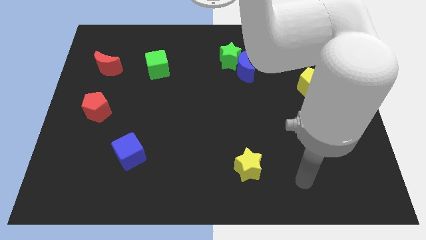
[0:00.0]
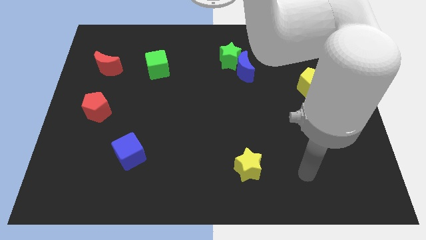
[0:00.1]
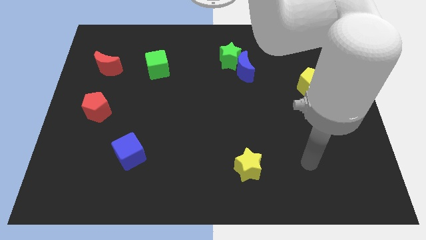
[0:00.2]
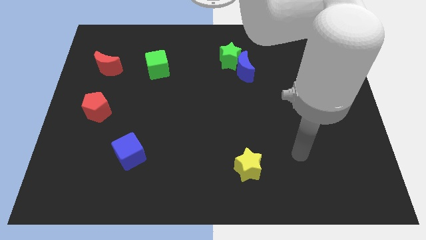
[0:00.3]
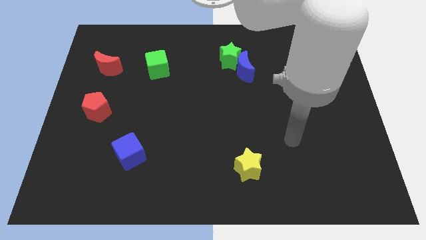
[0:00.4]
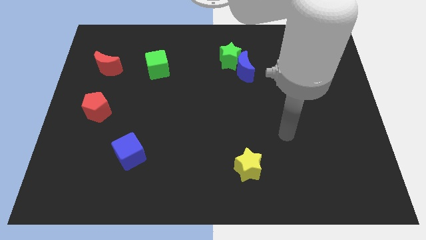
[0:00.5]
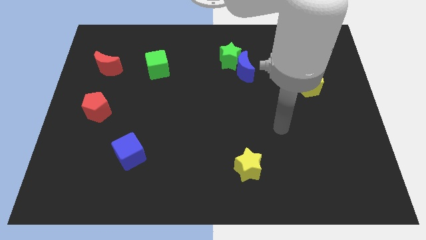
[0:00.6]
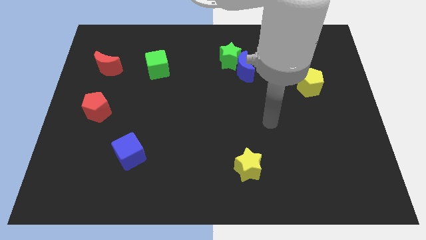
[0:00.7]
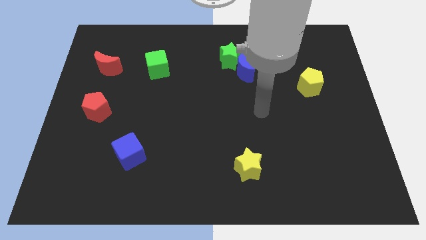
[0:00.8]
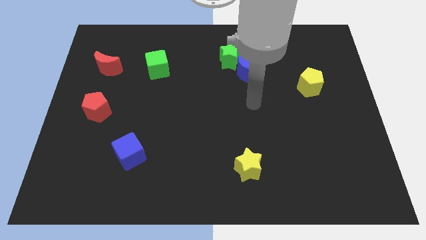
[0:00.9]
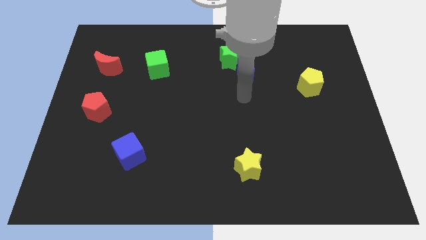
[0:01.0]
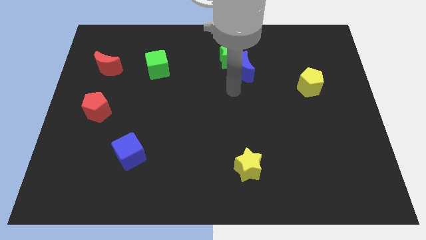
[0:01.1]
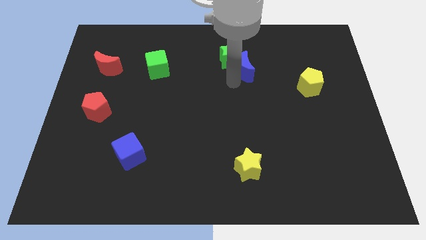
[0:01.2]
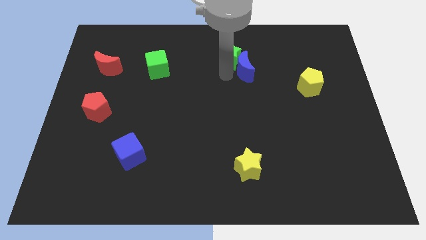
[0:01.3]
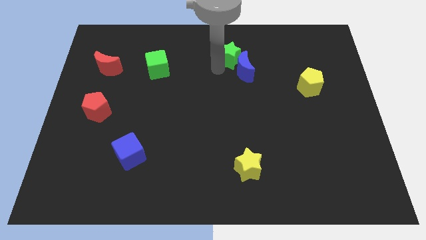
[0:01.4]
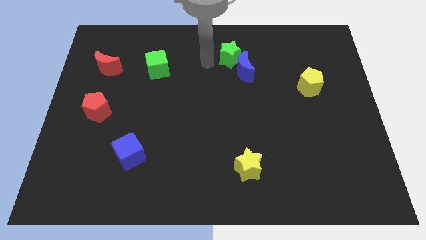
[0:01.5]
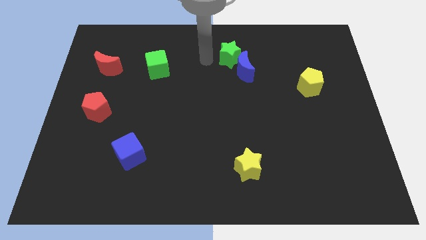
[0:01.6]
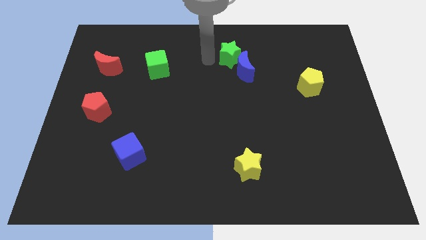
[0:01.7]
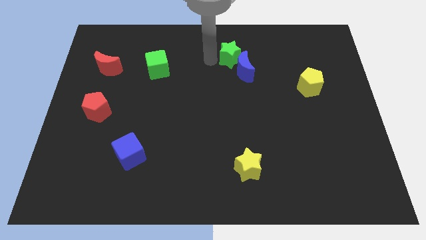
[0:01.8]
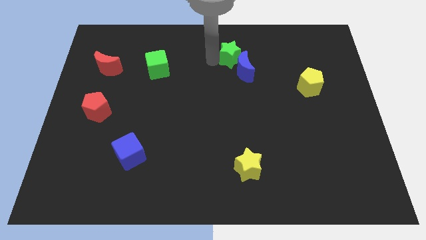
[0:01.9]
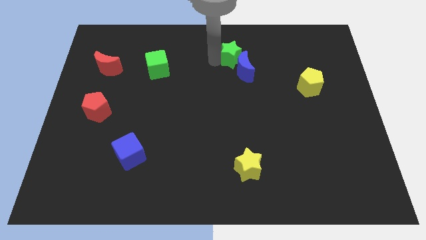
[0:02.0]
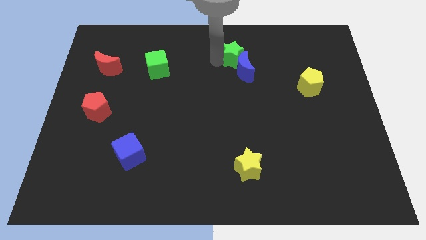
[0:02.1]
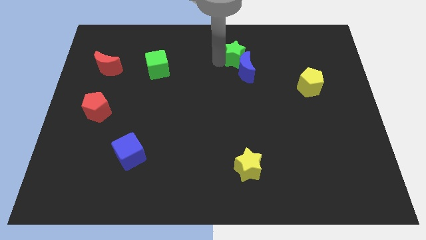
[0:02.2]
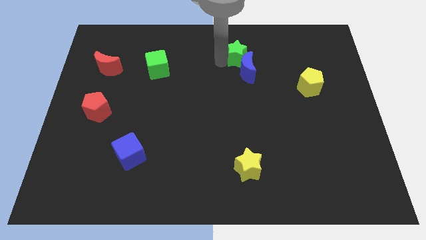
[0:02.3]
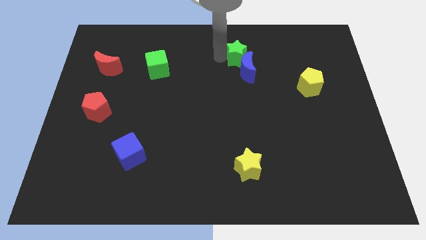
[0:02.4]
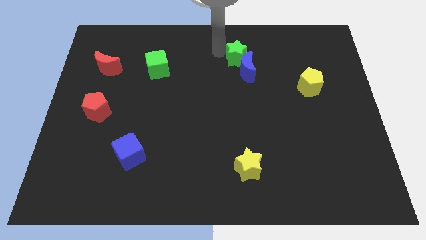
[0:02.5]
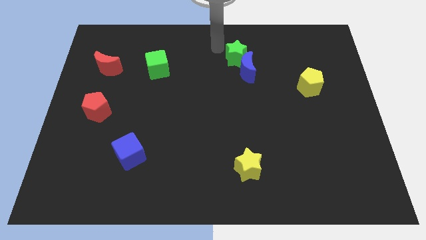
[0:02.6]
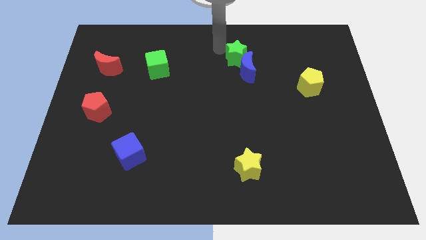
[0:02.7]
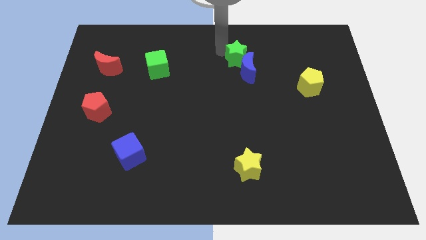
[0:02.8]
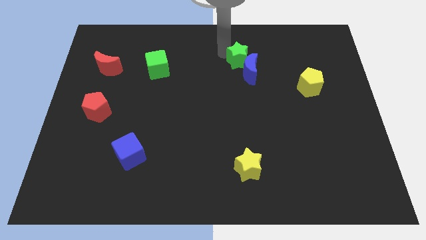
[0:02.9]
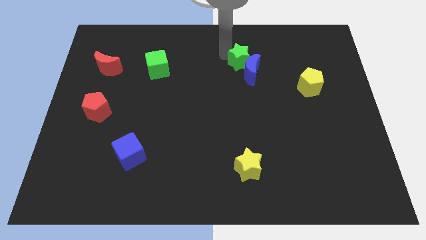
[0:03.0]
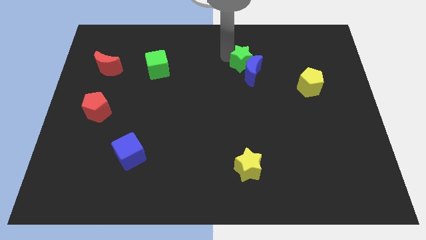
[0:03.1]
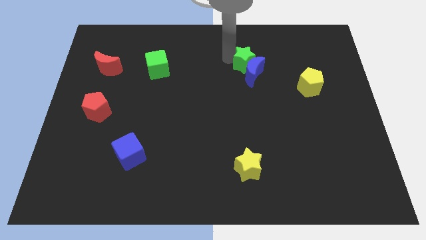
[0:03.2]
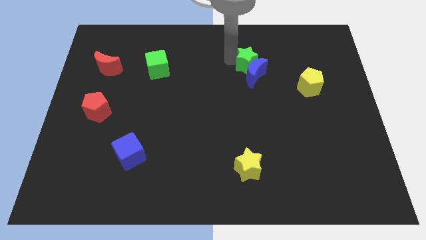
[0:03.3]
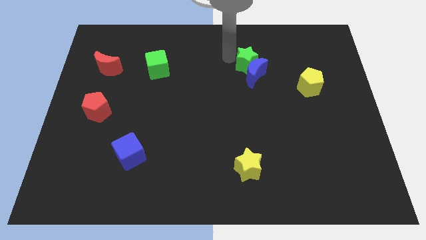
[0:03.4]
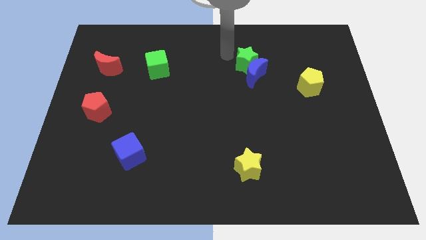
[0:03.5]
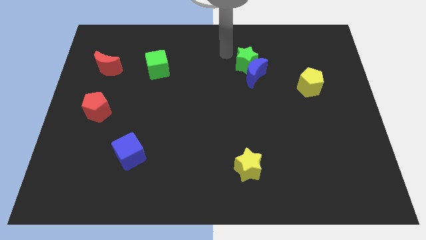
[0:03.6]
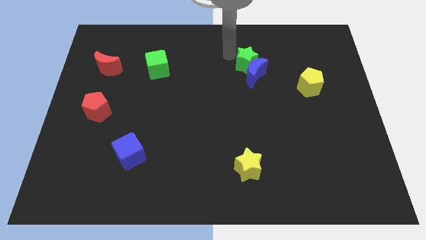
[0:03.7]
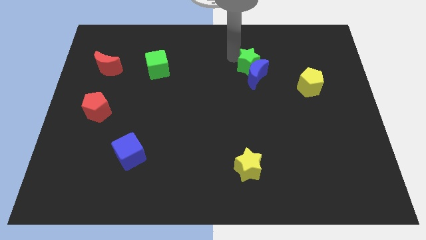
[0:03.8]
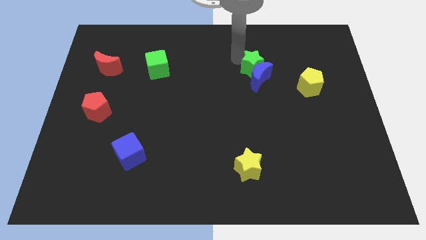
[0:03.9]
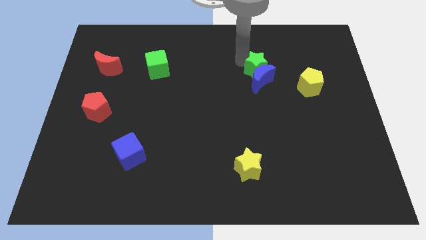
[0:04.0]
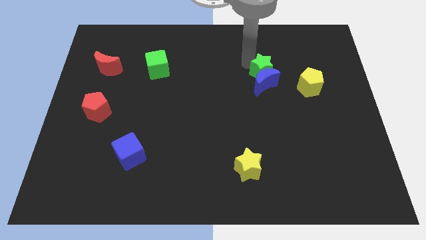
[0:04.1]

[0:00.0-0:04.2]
slide the green star a little bit diagonally down and right

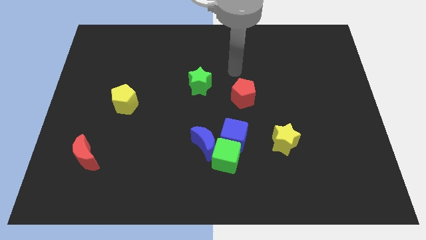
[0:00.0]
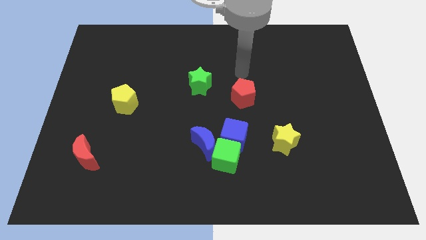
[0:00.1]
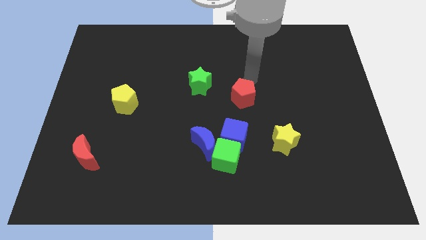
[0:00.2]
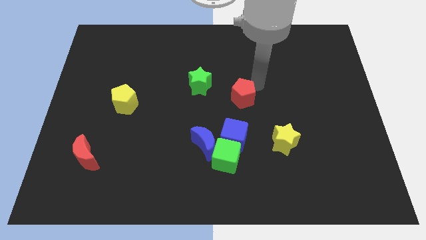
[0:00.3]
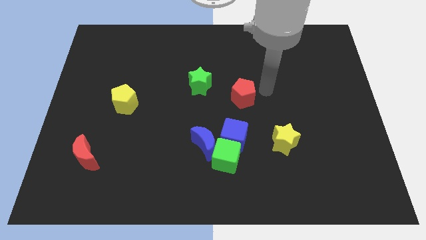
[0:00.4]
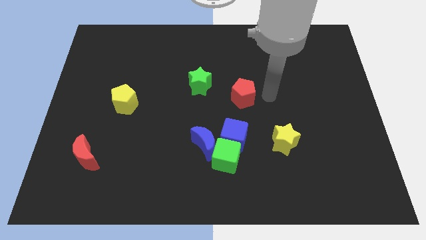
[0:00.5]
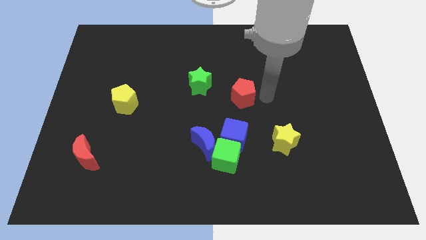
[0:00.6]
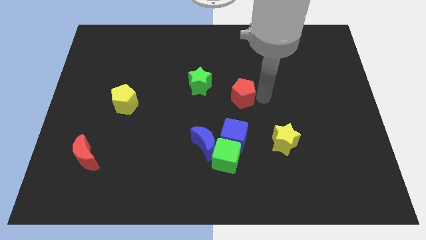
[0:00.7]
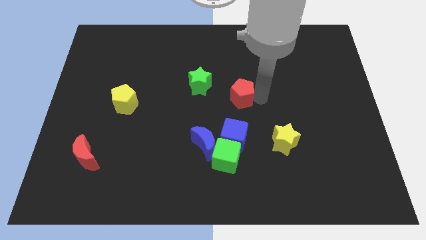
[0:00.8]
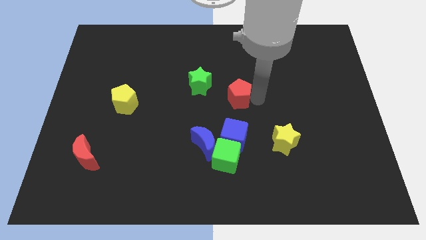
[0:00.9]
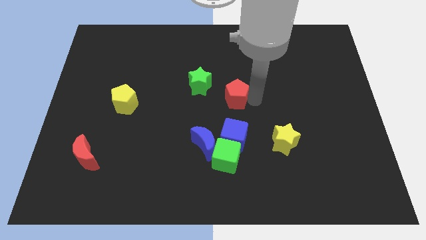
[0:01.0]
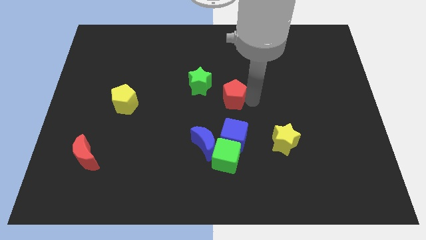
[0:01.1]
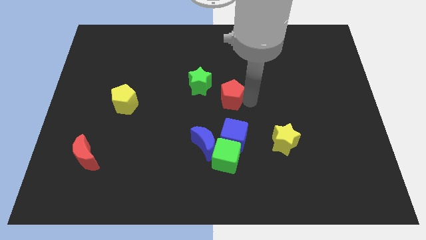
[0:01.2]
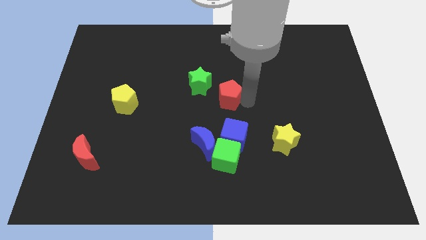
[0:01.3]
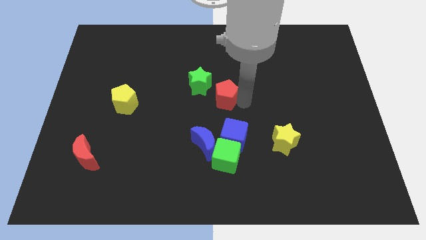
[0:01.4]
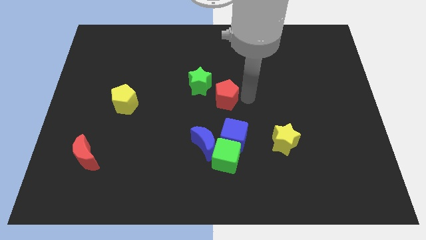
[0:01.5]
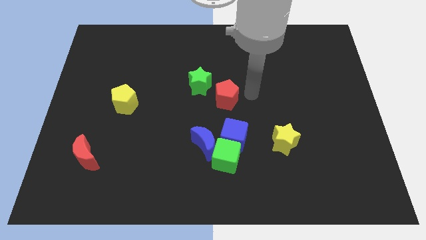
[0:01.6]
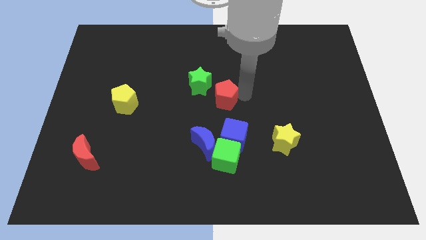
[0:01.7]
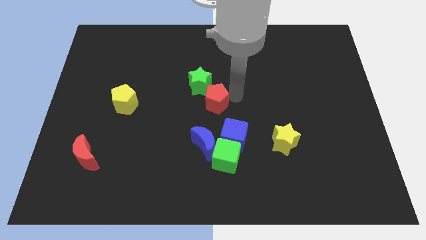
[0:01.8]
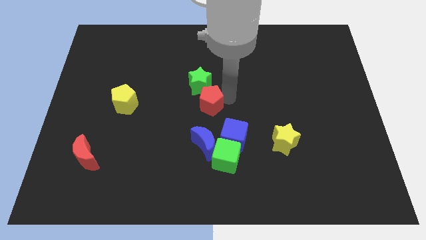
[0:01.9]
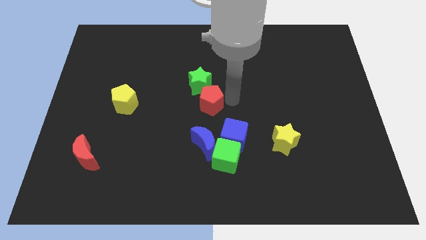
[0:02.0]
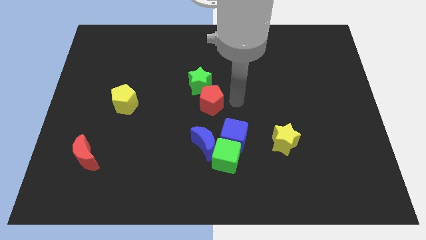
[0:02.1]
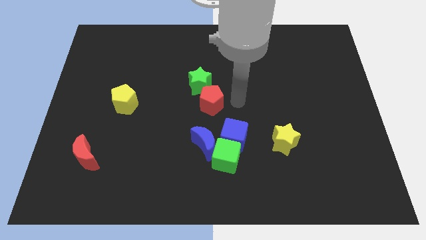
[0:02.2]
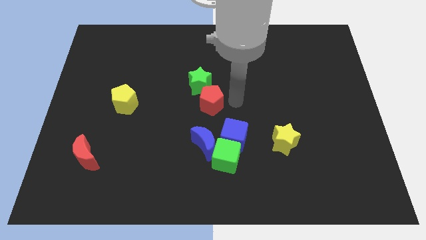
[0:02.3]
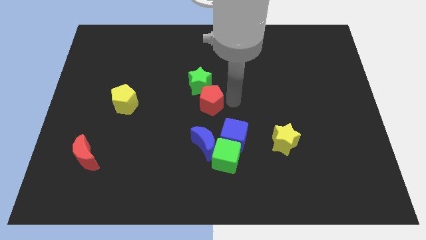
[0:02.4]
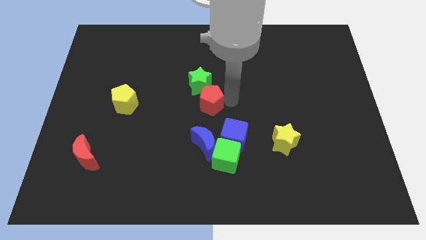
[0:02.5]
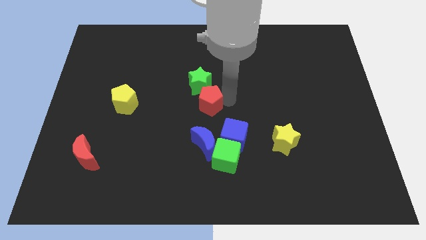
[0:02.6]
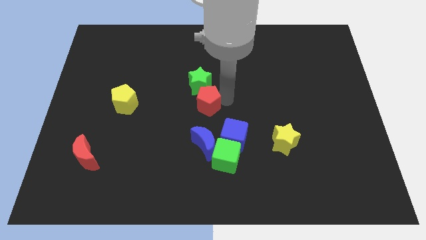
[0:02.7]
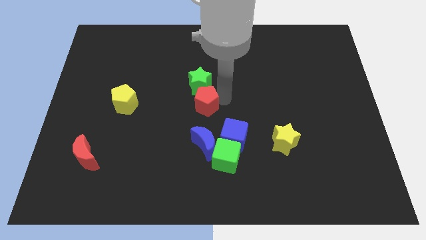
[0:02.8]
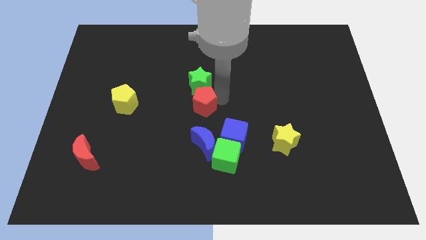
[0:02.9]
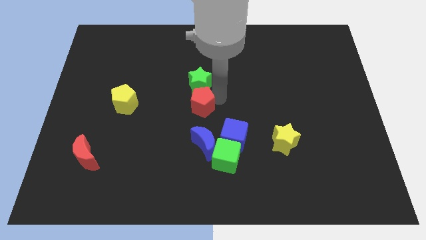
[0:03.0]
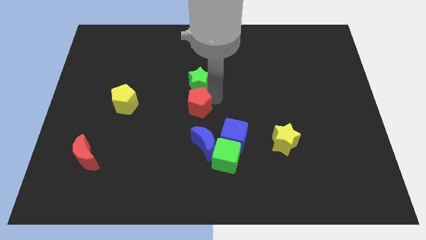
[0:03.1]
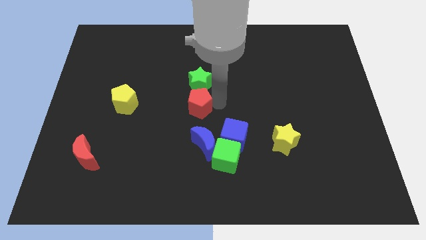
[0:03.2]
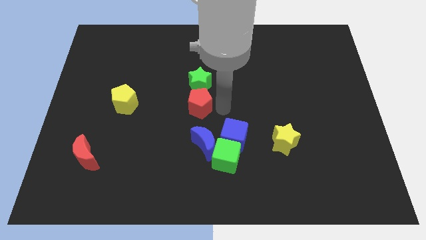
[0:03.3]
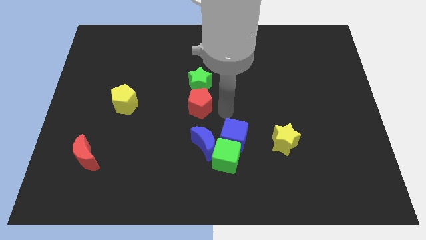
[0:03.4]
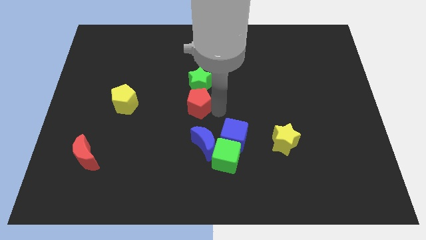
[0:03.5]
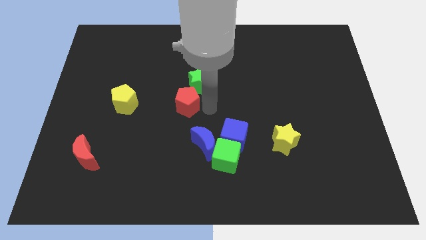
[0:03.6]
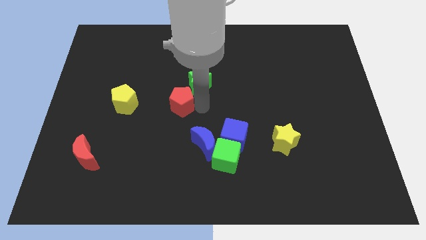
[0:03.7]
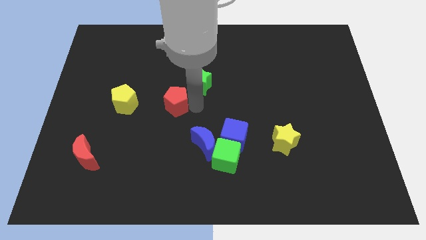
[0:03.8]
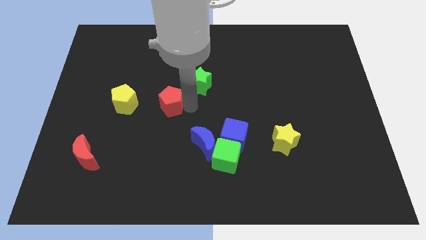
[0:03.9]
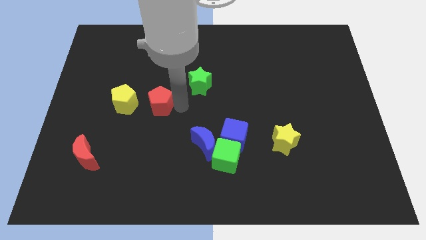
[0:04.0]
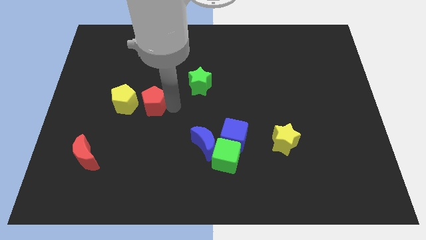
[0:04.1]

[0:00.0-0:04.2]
slide the red pentagon to the left
